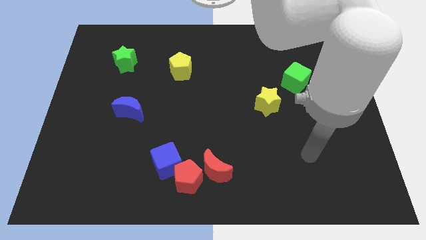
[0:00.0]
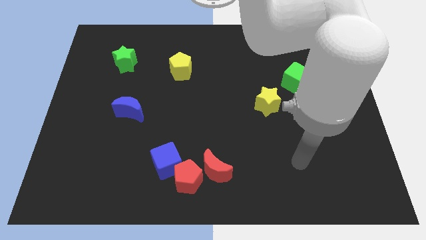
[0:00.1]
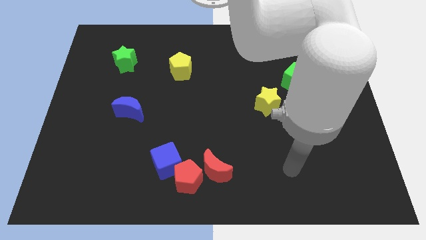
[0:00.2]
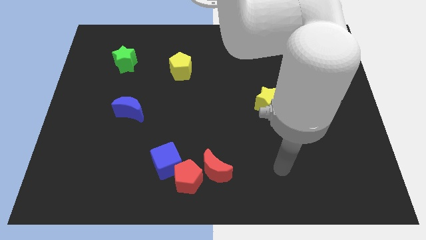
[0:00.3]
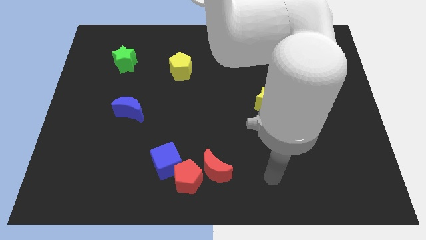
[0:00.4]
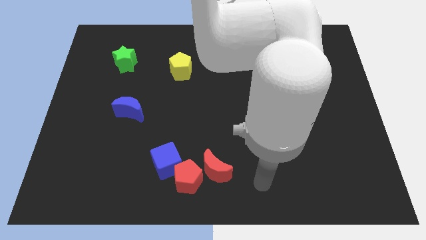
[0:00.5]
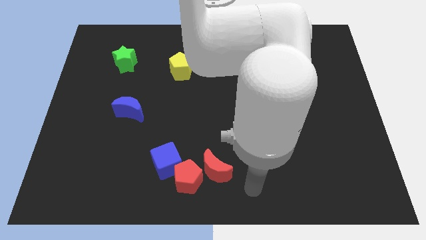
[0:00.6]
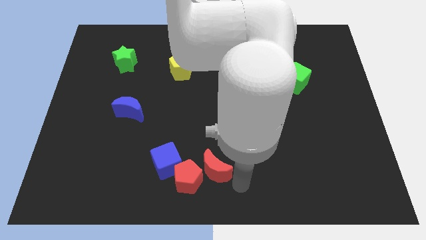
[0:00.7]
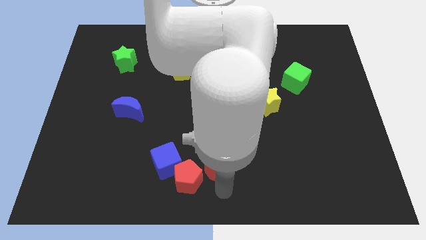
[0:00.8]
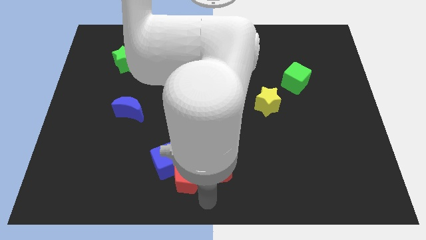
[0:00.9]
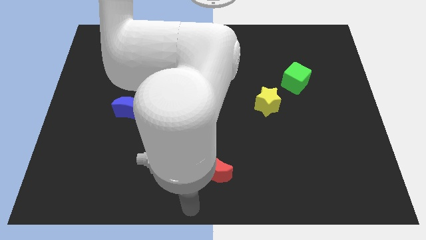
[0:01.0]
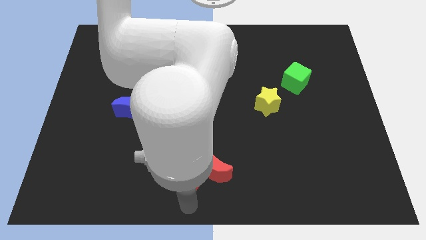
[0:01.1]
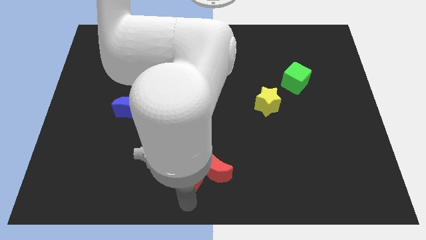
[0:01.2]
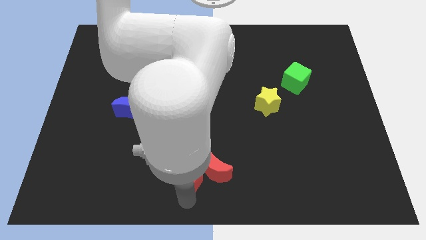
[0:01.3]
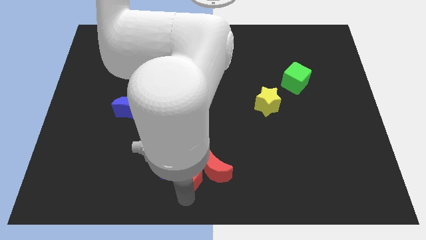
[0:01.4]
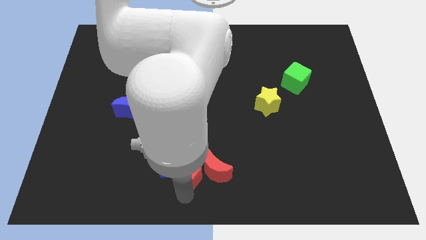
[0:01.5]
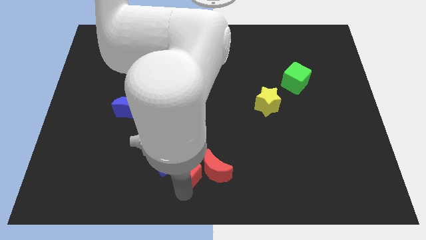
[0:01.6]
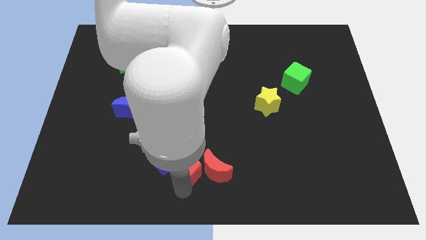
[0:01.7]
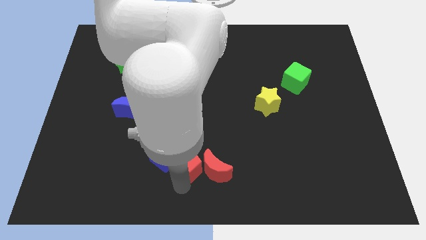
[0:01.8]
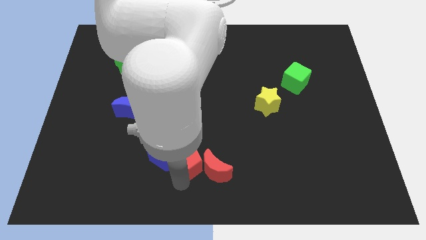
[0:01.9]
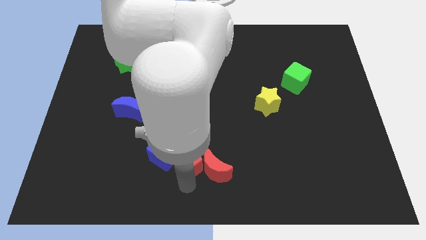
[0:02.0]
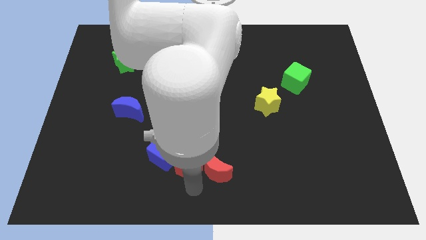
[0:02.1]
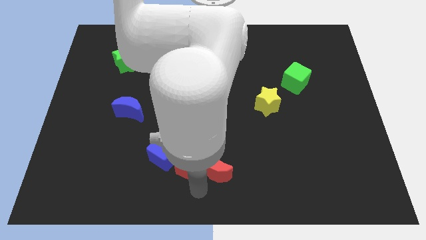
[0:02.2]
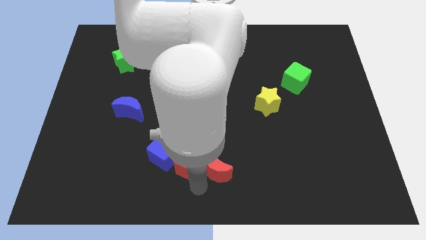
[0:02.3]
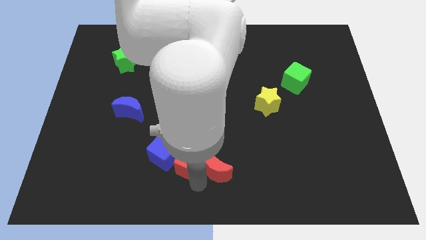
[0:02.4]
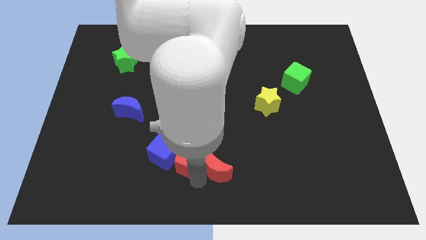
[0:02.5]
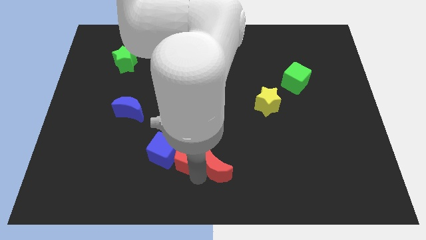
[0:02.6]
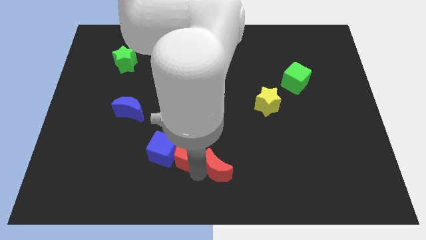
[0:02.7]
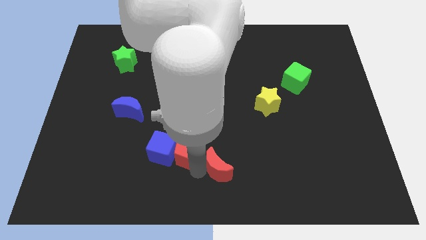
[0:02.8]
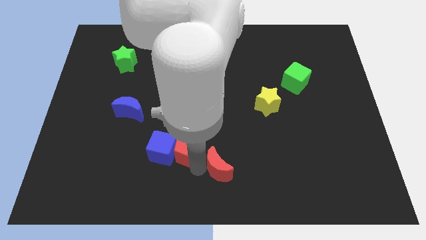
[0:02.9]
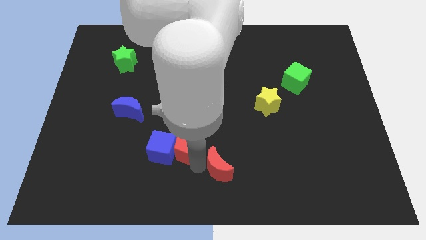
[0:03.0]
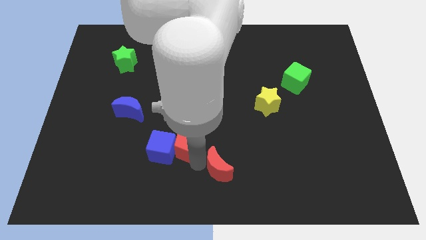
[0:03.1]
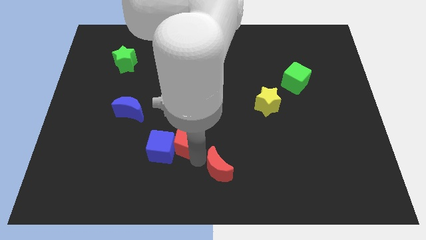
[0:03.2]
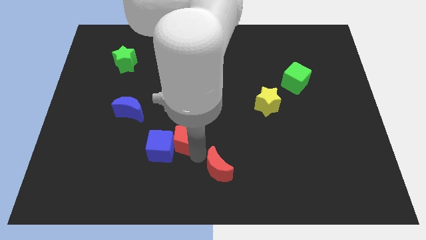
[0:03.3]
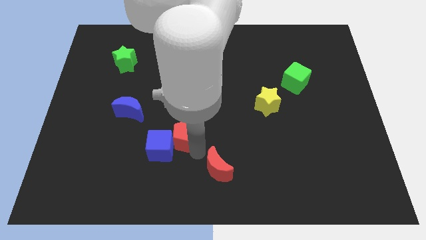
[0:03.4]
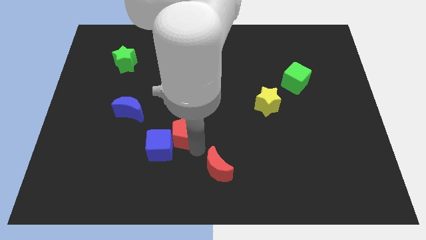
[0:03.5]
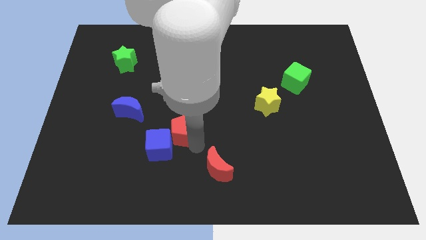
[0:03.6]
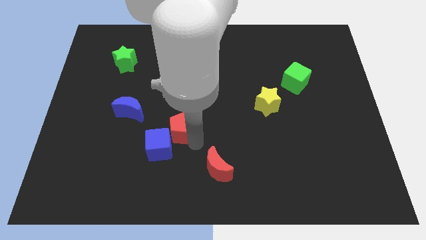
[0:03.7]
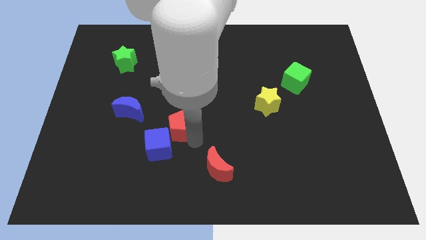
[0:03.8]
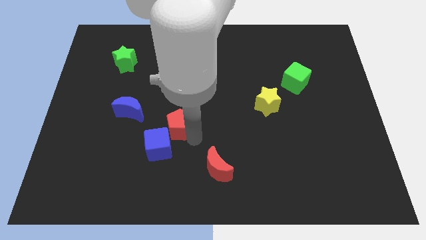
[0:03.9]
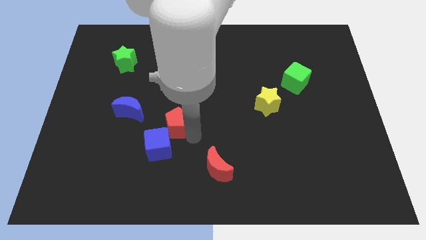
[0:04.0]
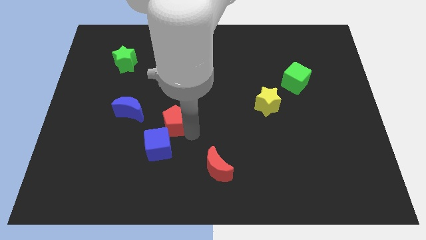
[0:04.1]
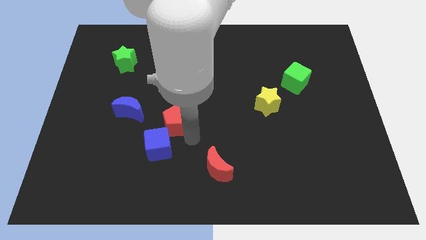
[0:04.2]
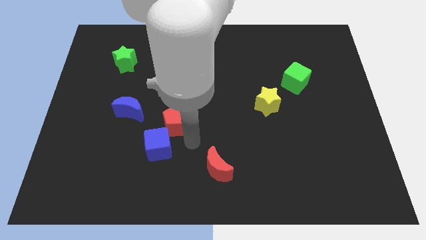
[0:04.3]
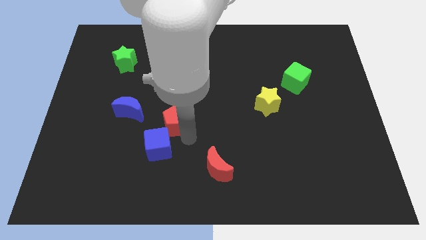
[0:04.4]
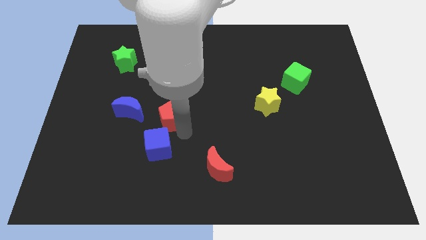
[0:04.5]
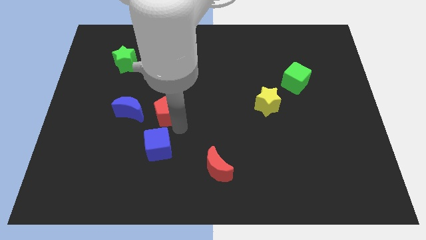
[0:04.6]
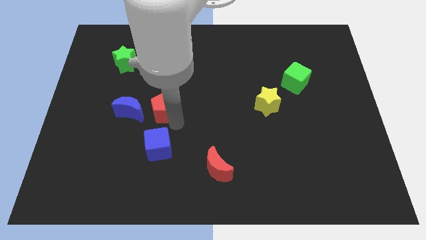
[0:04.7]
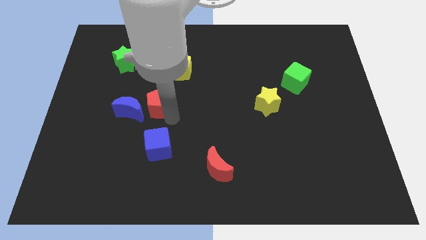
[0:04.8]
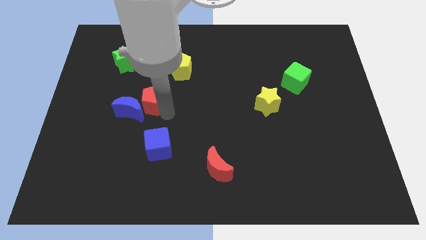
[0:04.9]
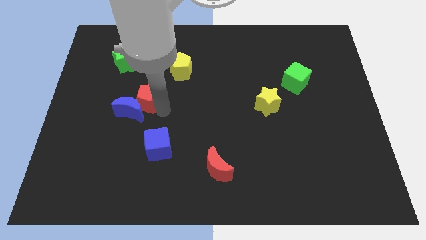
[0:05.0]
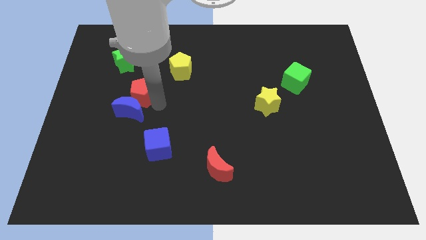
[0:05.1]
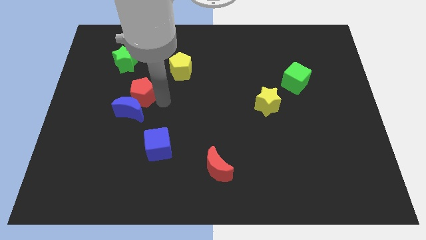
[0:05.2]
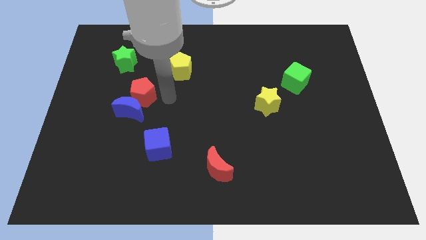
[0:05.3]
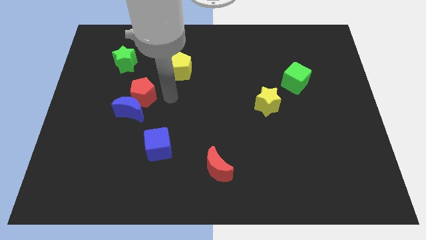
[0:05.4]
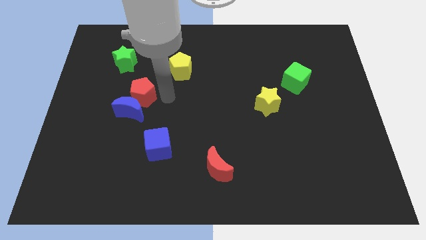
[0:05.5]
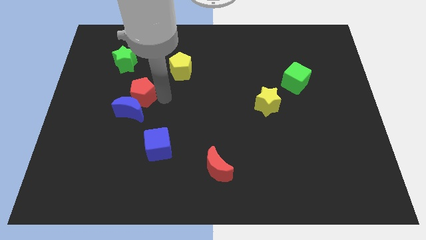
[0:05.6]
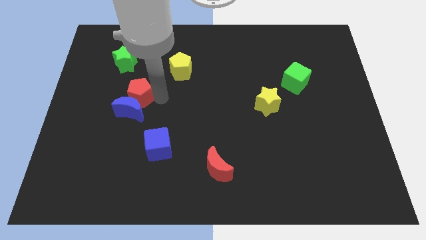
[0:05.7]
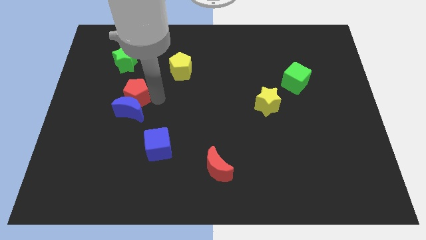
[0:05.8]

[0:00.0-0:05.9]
push the red pentagon to the bottom side of the green star
